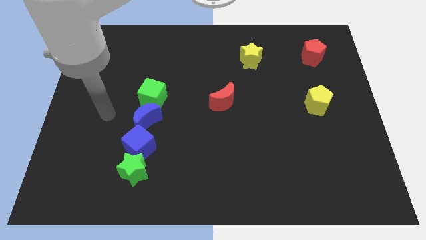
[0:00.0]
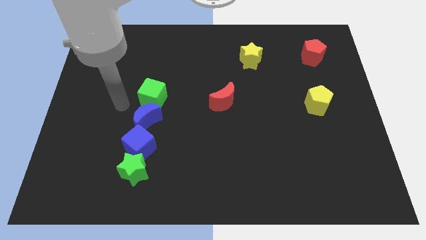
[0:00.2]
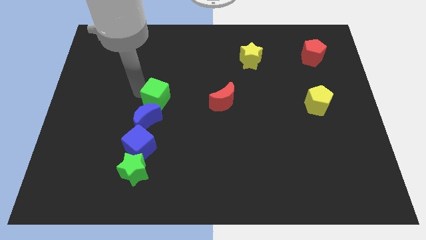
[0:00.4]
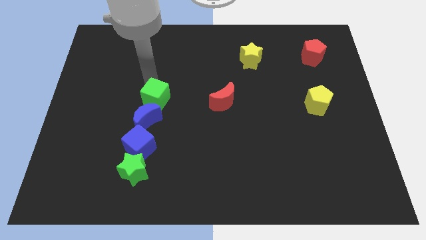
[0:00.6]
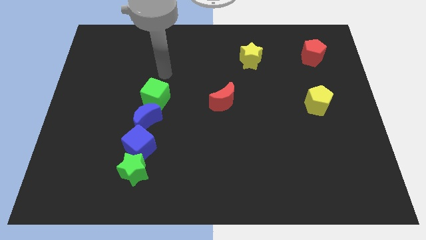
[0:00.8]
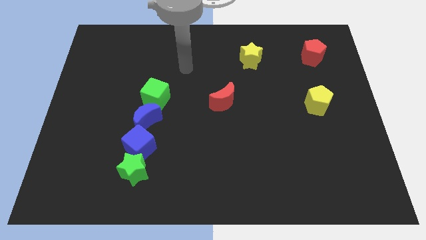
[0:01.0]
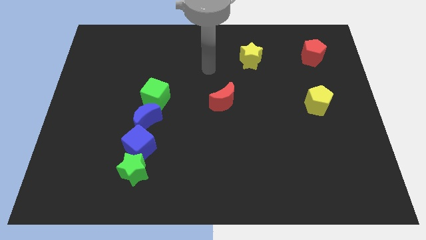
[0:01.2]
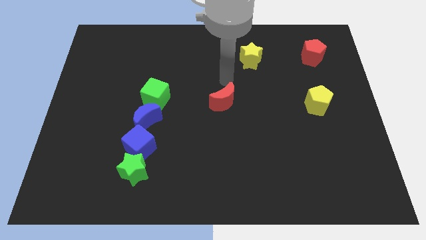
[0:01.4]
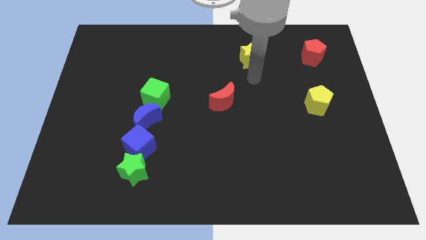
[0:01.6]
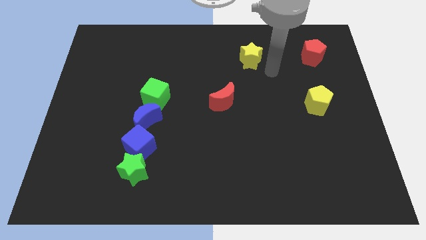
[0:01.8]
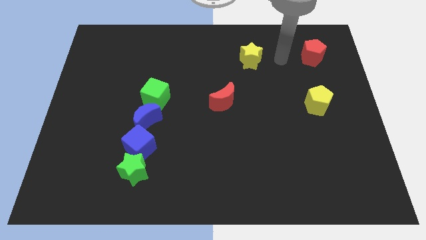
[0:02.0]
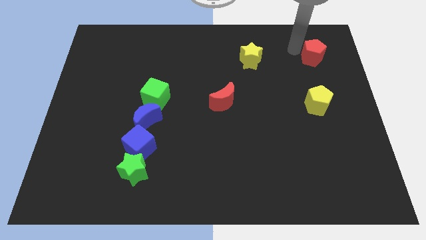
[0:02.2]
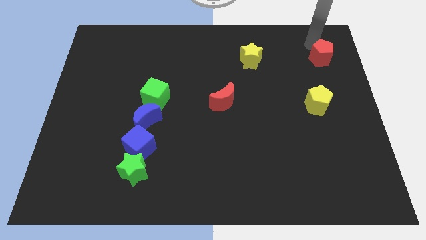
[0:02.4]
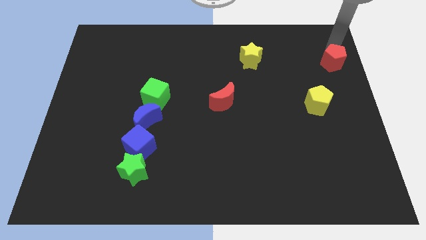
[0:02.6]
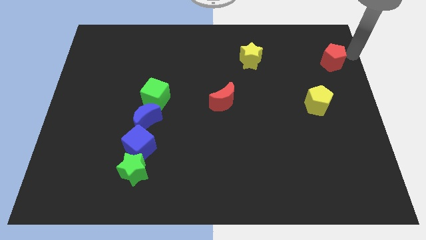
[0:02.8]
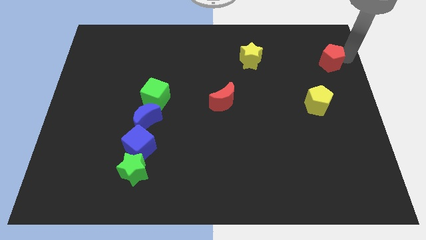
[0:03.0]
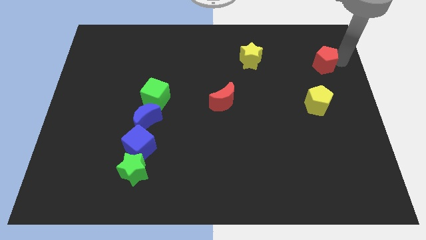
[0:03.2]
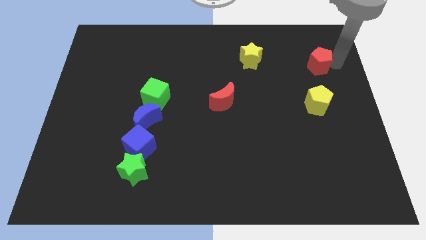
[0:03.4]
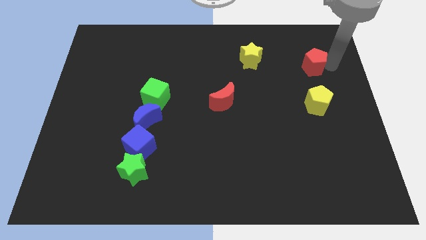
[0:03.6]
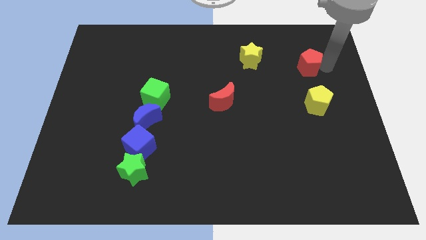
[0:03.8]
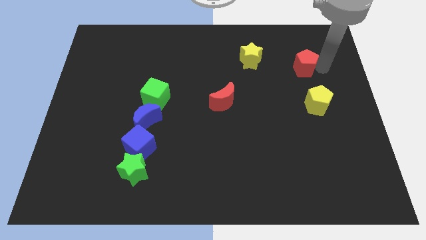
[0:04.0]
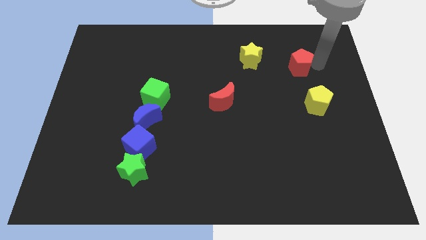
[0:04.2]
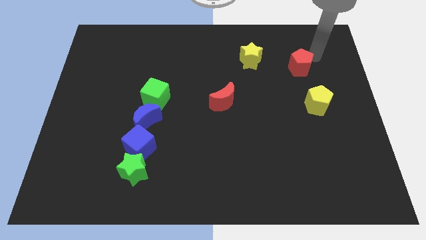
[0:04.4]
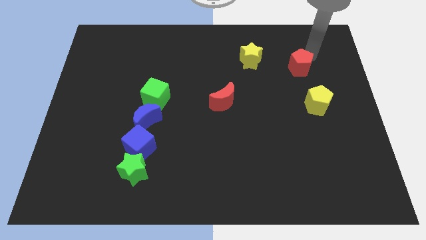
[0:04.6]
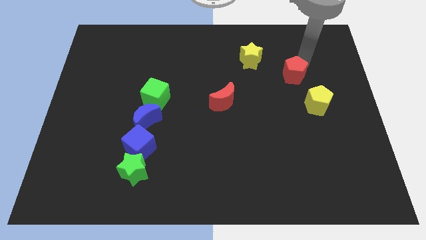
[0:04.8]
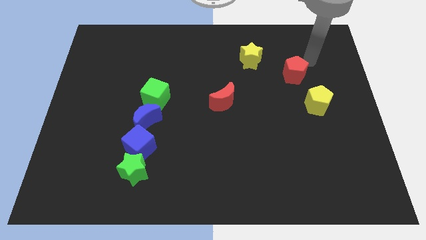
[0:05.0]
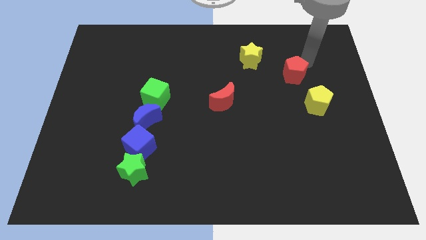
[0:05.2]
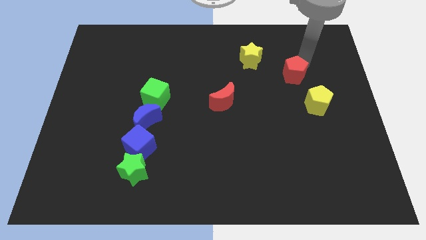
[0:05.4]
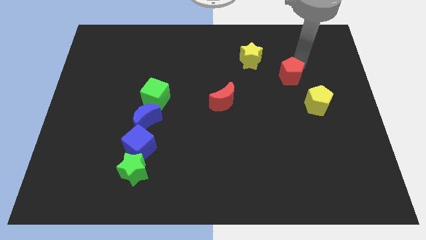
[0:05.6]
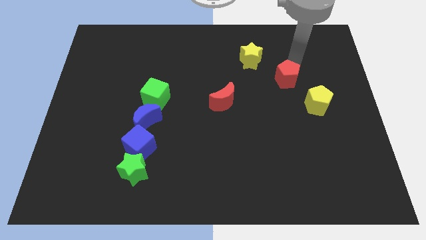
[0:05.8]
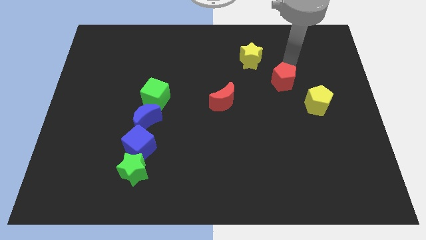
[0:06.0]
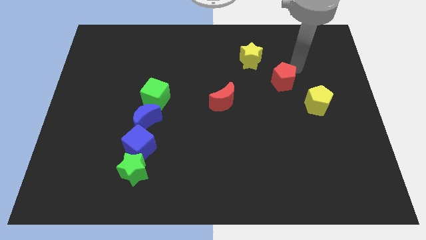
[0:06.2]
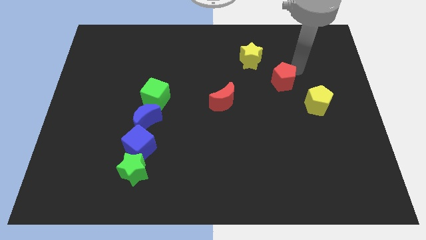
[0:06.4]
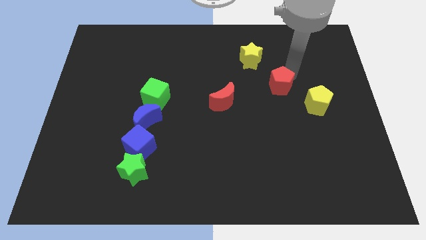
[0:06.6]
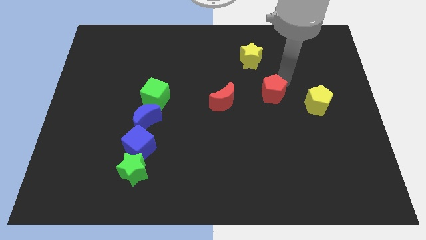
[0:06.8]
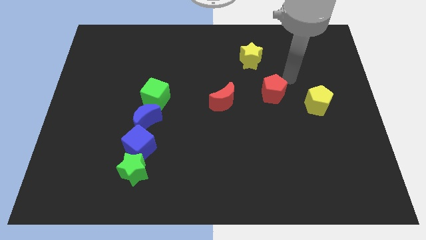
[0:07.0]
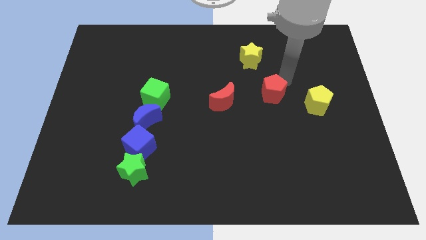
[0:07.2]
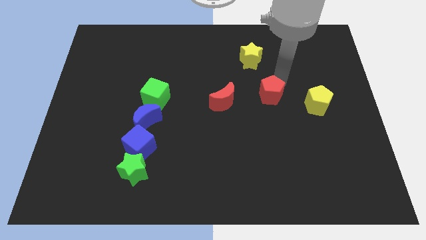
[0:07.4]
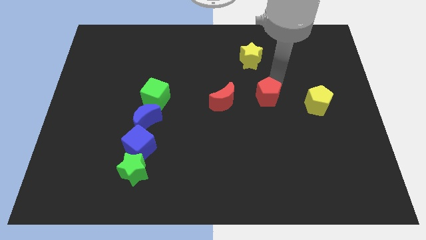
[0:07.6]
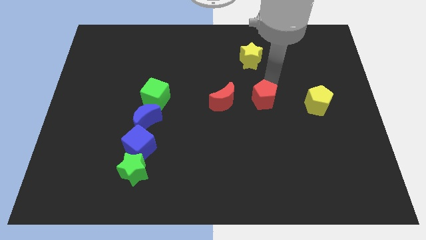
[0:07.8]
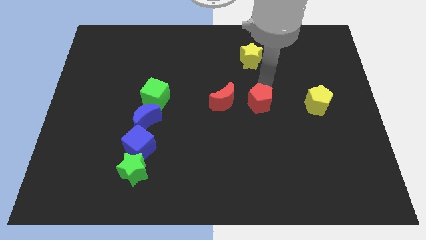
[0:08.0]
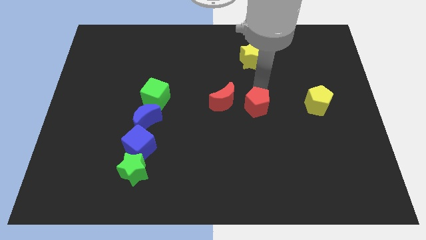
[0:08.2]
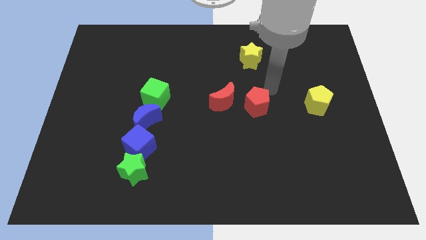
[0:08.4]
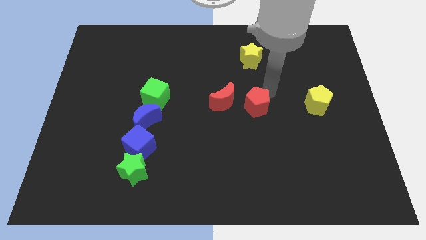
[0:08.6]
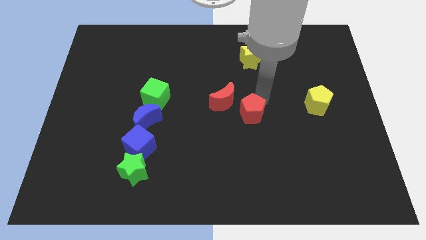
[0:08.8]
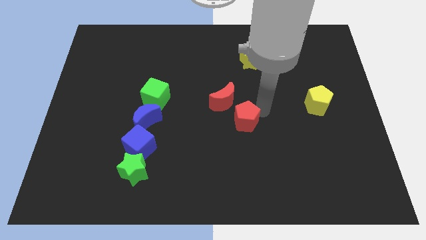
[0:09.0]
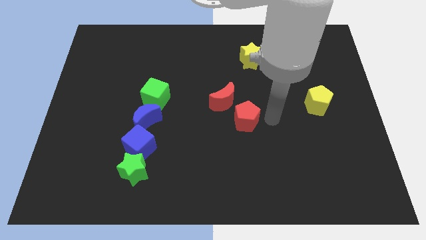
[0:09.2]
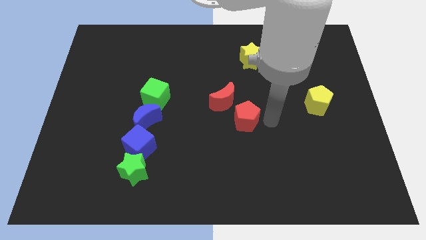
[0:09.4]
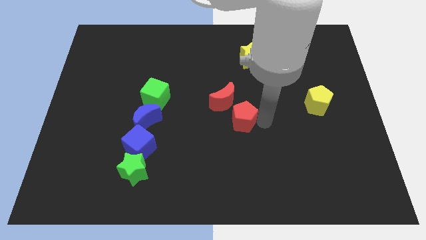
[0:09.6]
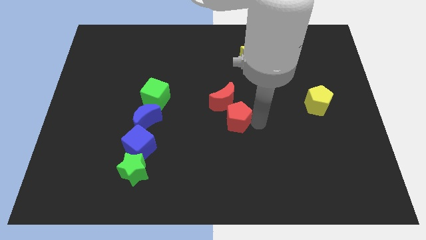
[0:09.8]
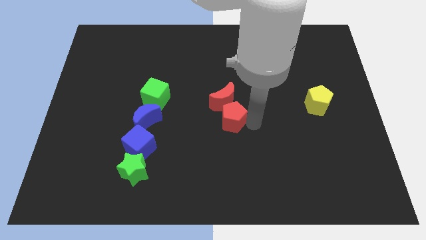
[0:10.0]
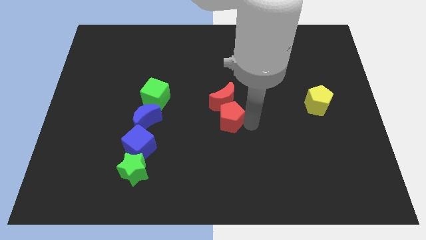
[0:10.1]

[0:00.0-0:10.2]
move the red pentagon diagonally down and to the left of the red moon

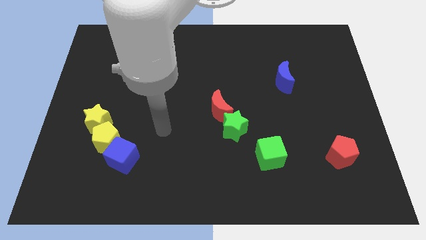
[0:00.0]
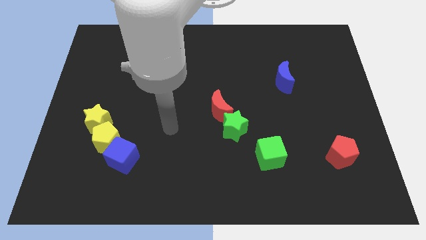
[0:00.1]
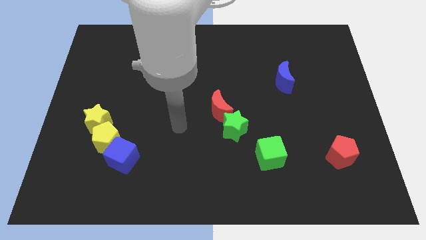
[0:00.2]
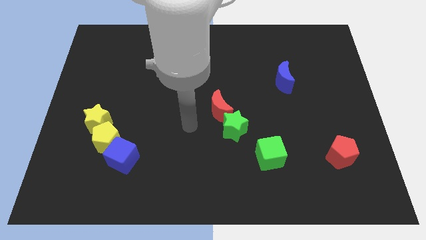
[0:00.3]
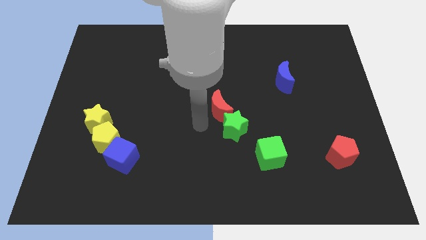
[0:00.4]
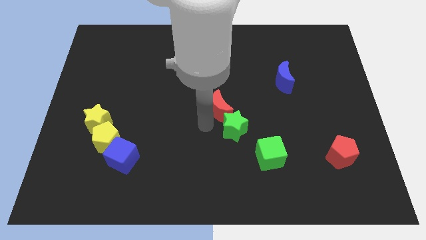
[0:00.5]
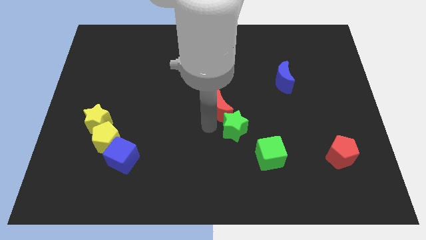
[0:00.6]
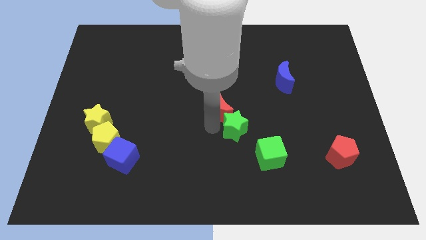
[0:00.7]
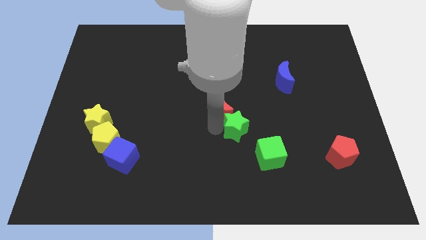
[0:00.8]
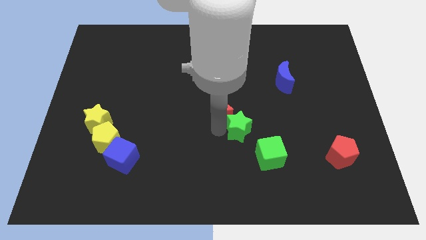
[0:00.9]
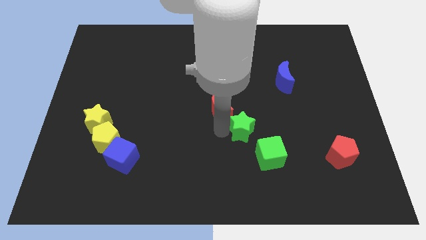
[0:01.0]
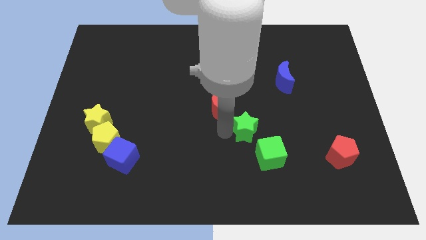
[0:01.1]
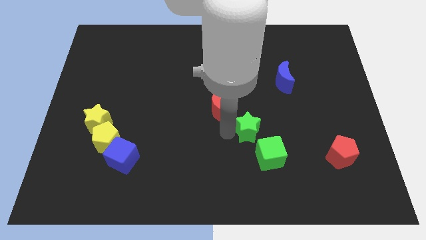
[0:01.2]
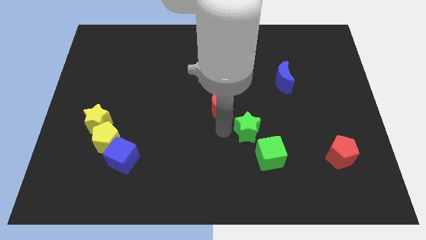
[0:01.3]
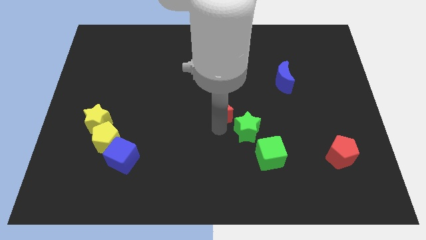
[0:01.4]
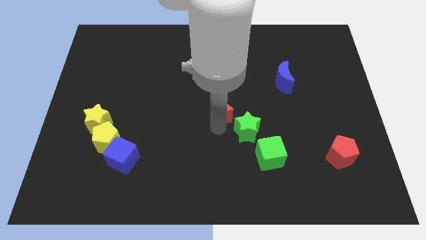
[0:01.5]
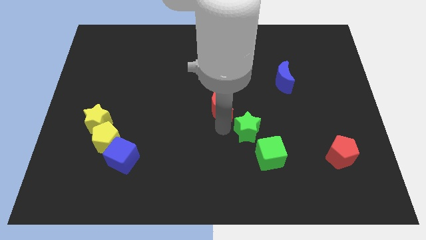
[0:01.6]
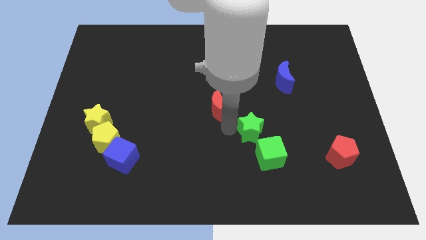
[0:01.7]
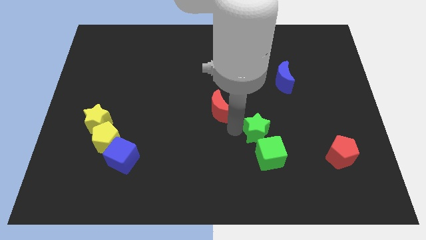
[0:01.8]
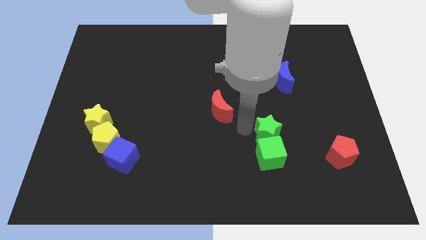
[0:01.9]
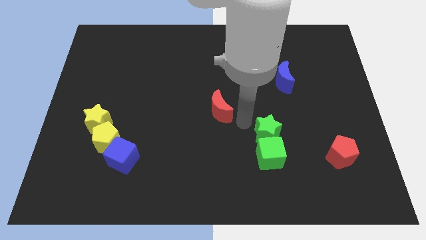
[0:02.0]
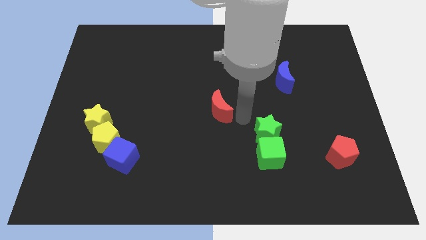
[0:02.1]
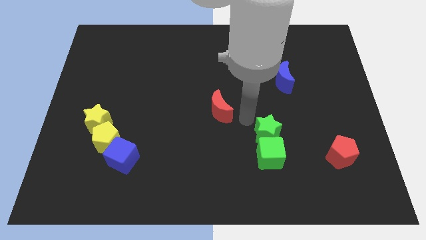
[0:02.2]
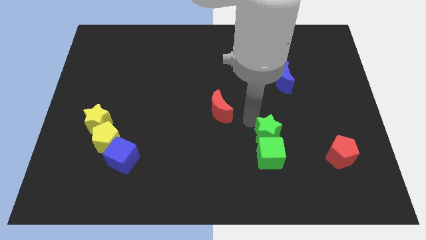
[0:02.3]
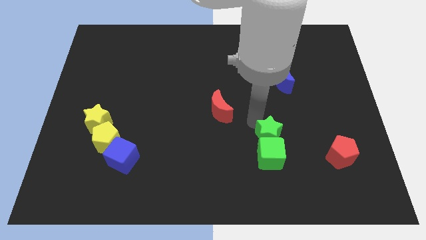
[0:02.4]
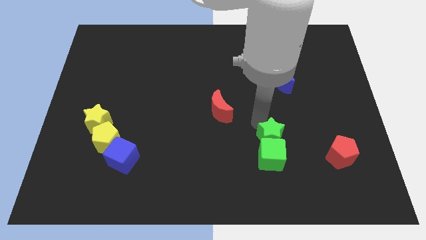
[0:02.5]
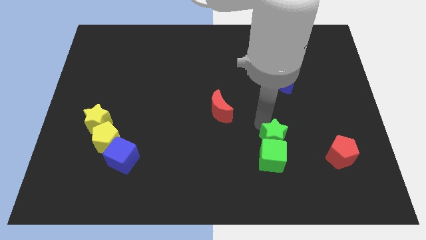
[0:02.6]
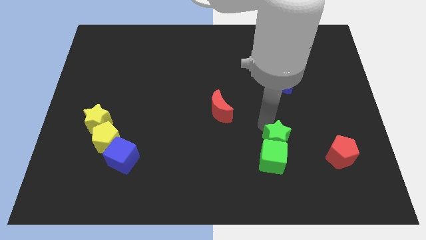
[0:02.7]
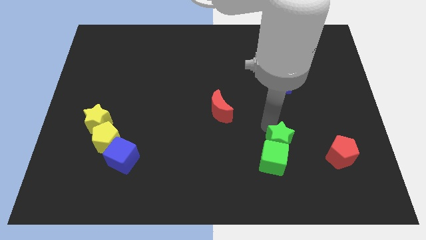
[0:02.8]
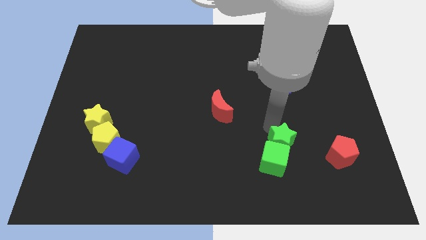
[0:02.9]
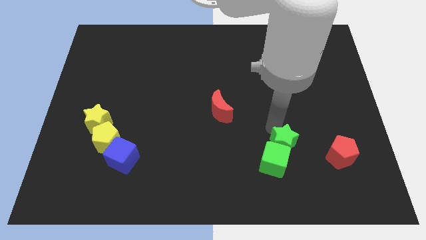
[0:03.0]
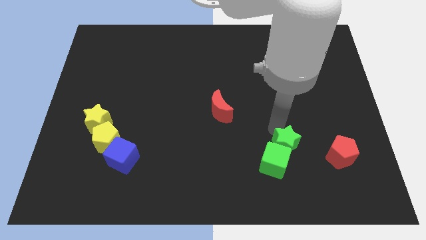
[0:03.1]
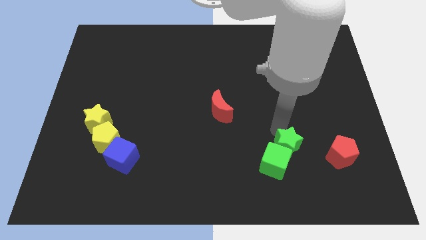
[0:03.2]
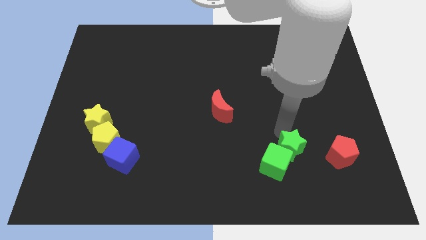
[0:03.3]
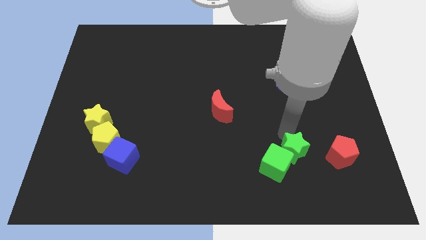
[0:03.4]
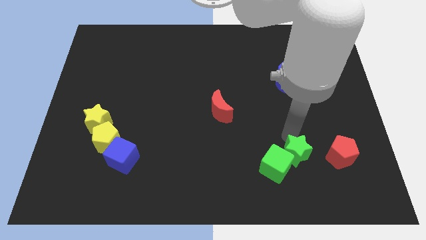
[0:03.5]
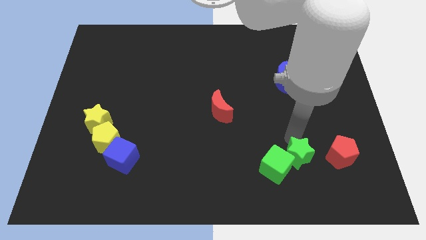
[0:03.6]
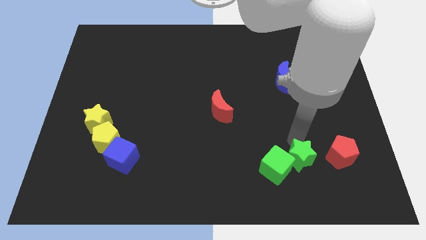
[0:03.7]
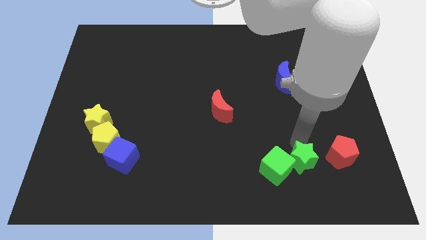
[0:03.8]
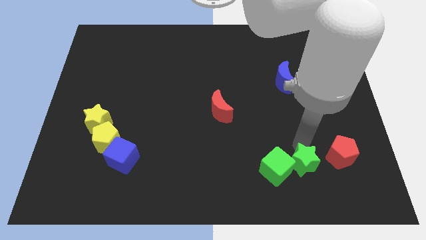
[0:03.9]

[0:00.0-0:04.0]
move the green star to the bottom left side of the red pentagon
